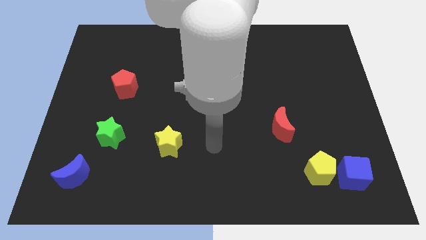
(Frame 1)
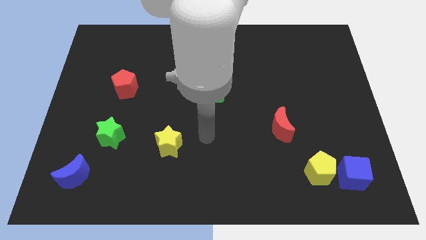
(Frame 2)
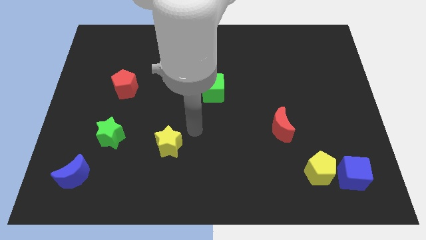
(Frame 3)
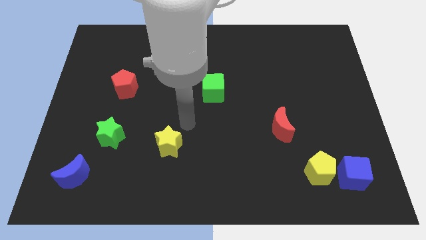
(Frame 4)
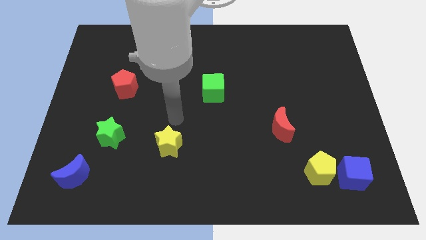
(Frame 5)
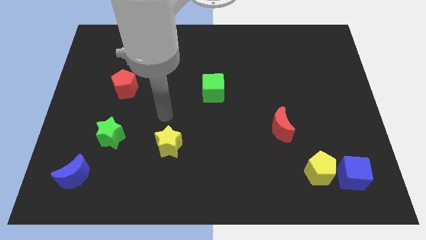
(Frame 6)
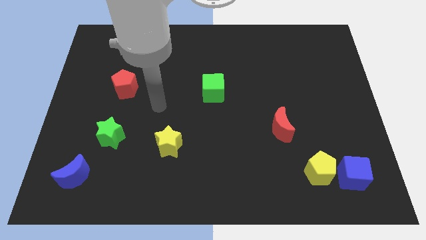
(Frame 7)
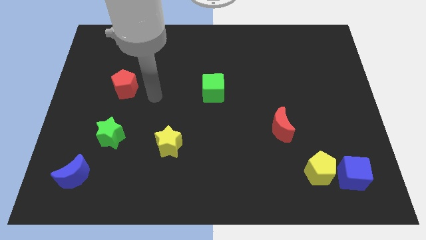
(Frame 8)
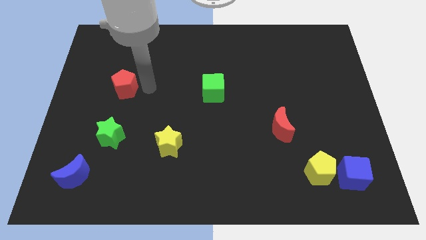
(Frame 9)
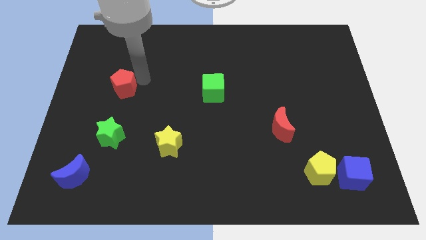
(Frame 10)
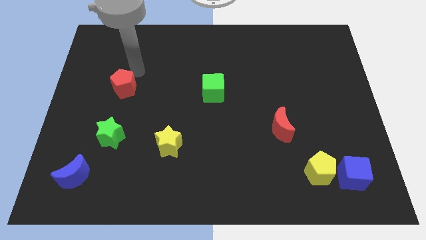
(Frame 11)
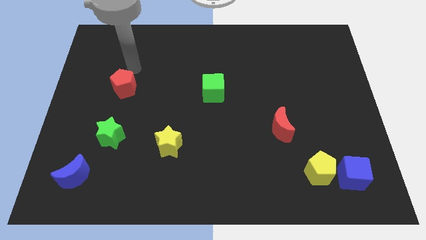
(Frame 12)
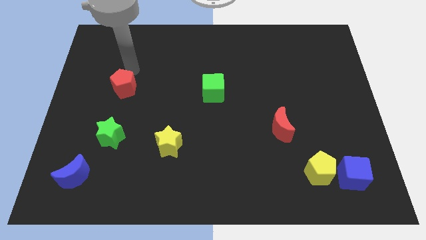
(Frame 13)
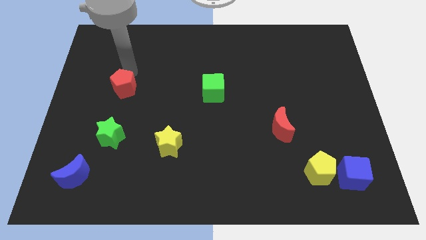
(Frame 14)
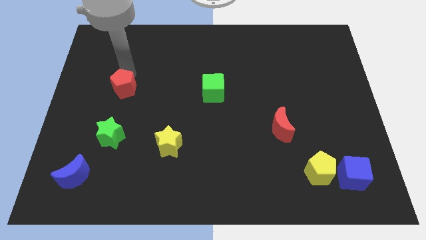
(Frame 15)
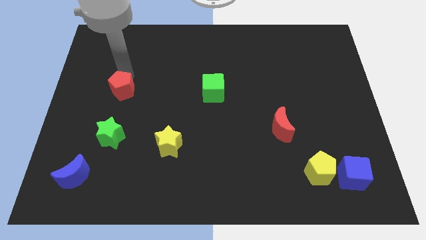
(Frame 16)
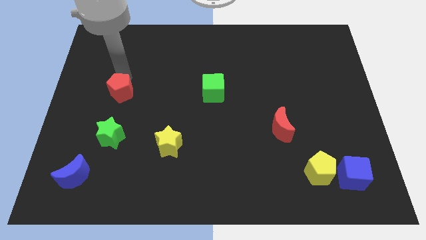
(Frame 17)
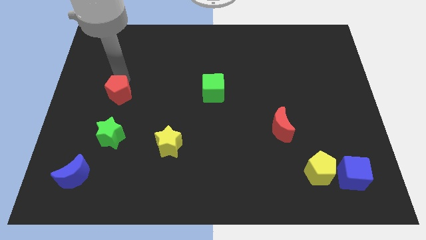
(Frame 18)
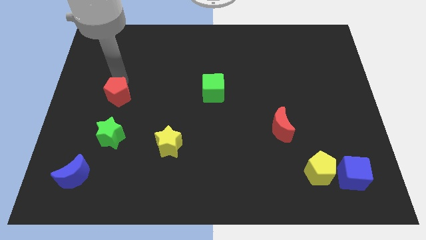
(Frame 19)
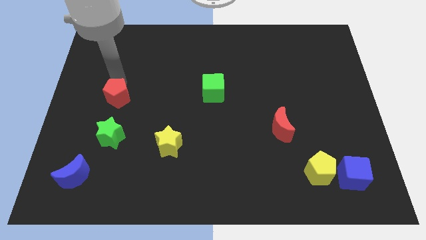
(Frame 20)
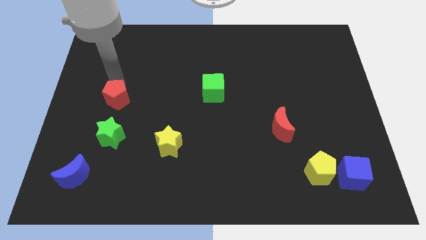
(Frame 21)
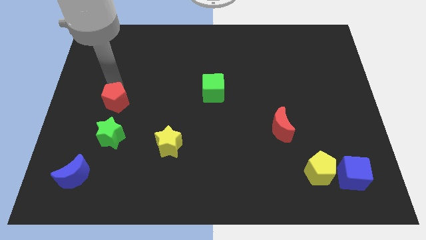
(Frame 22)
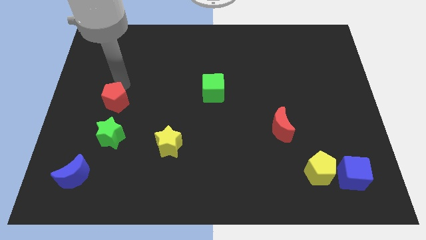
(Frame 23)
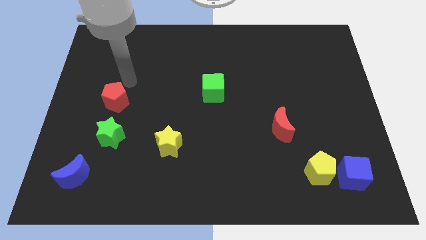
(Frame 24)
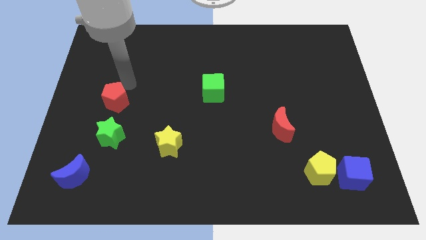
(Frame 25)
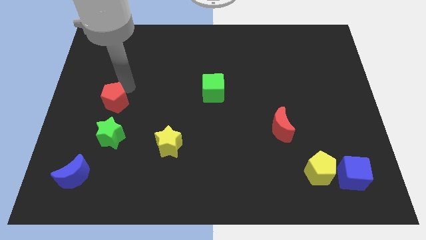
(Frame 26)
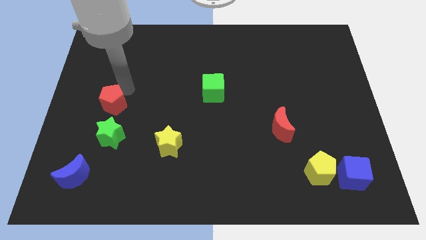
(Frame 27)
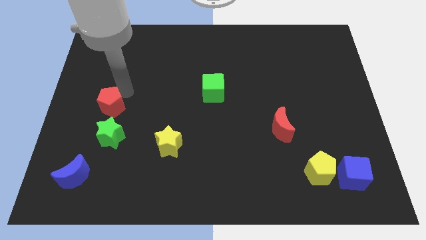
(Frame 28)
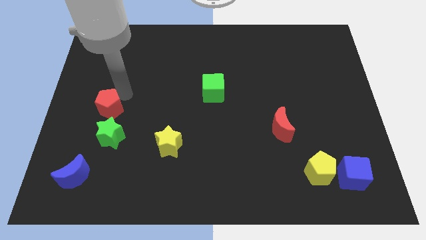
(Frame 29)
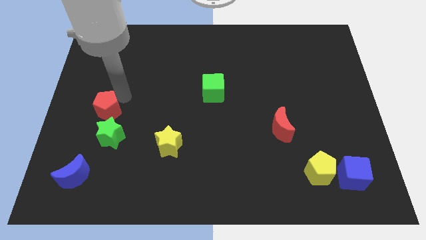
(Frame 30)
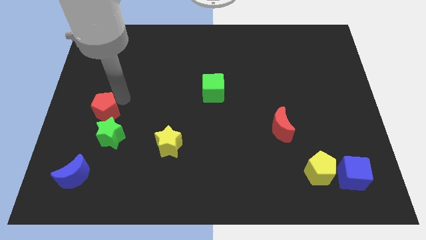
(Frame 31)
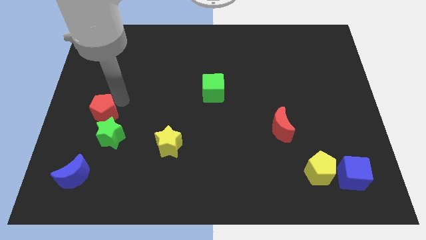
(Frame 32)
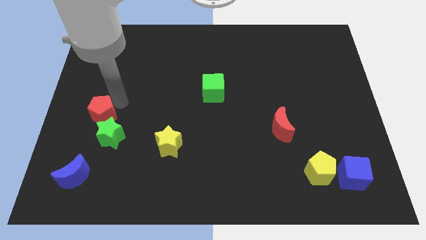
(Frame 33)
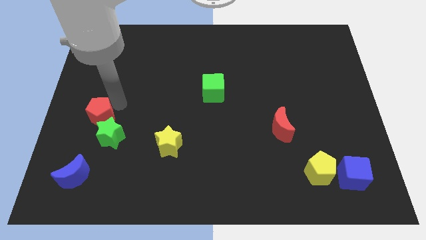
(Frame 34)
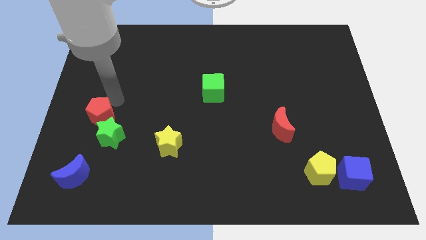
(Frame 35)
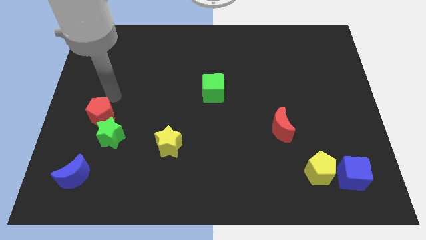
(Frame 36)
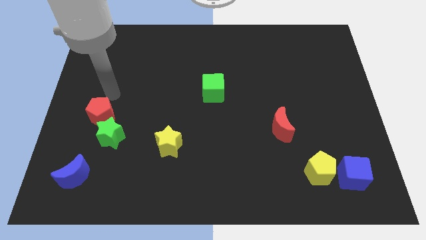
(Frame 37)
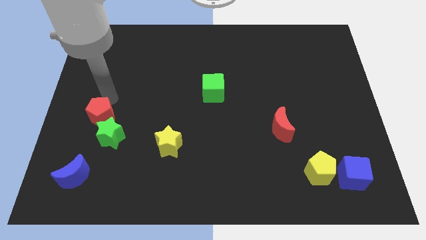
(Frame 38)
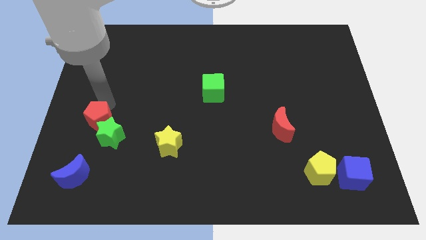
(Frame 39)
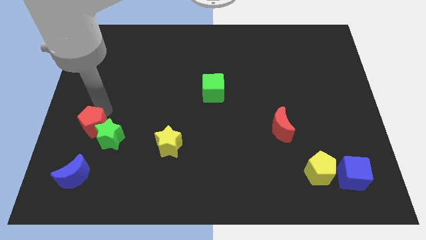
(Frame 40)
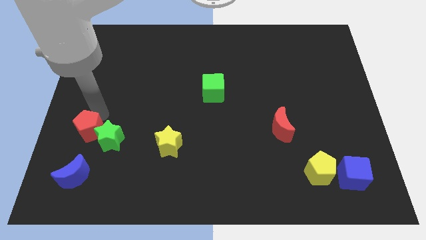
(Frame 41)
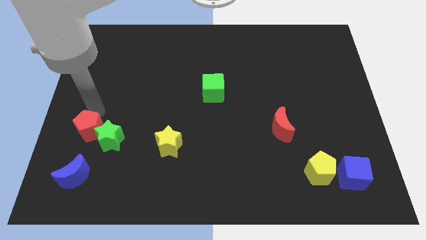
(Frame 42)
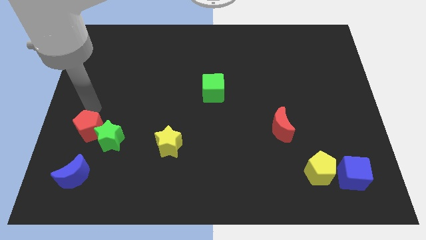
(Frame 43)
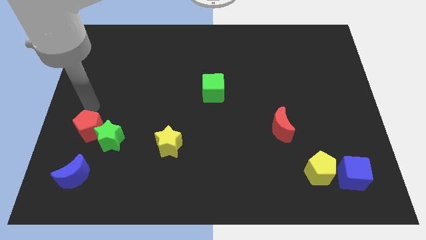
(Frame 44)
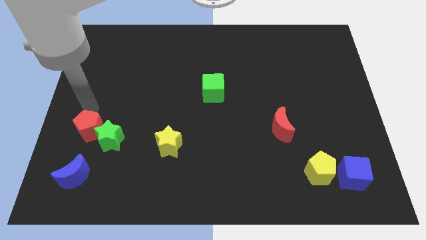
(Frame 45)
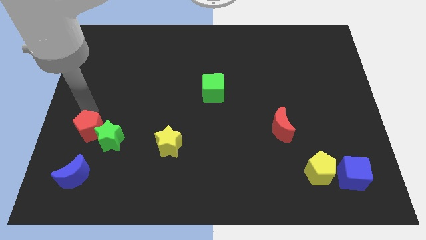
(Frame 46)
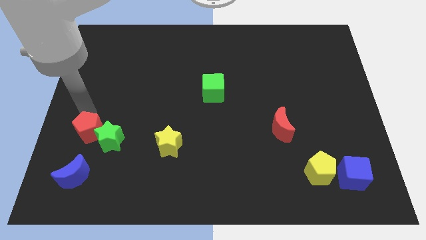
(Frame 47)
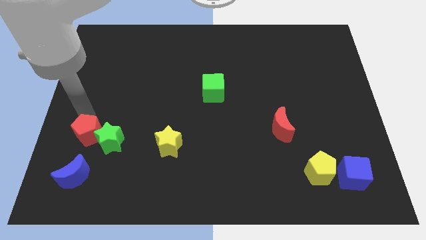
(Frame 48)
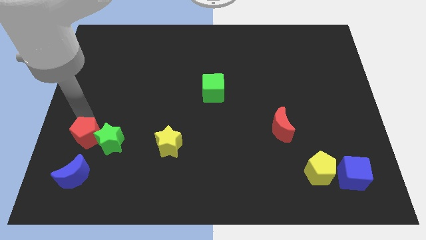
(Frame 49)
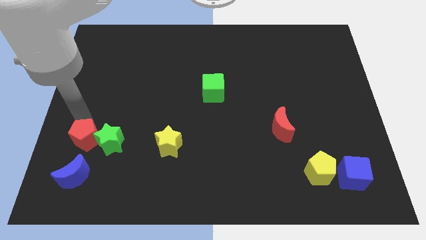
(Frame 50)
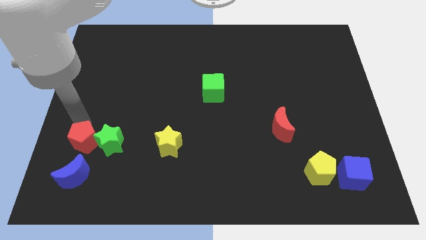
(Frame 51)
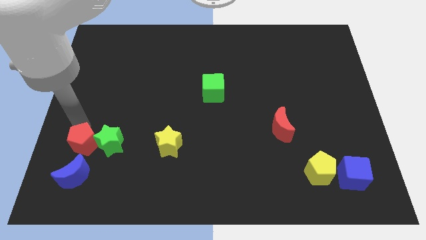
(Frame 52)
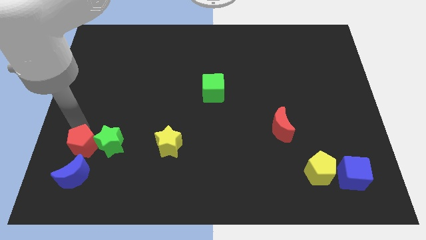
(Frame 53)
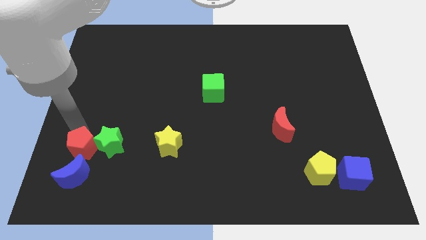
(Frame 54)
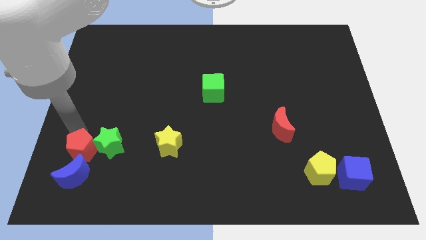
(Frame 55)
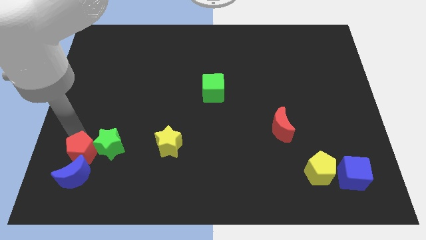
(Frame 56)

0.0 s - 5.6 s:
push the red pentagon close to the blue moon

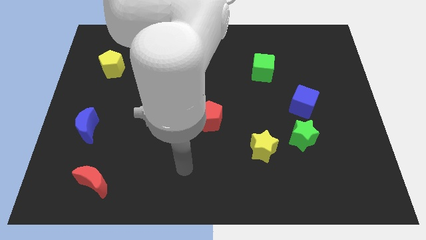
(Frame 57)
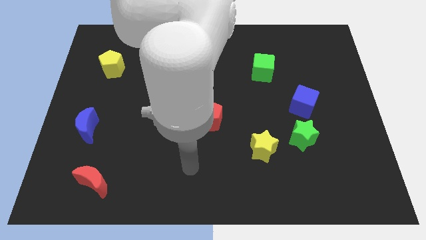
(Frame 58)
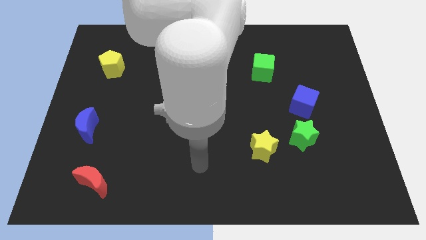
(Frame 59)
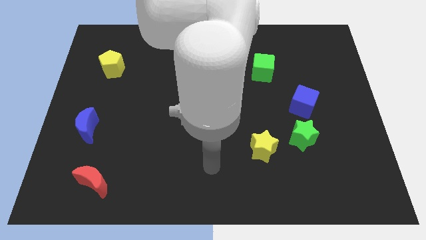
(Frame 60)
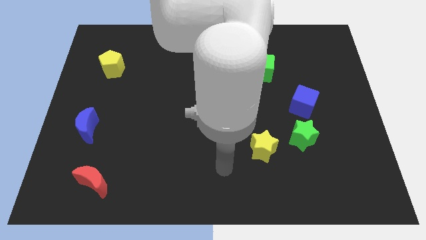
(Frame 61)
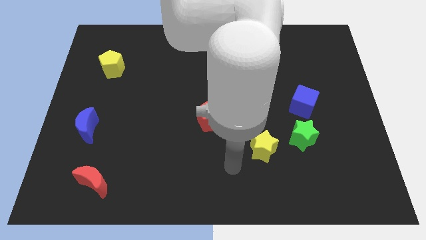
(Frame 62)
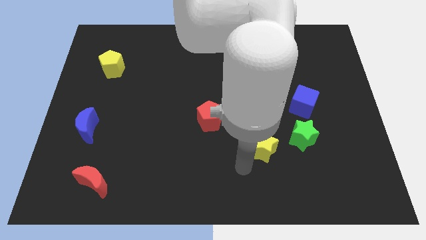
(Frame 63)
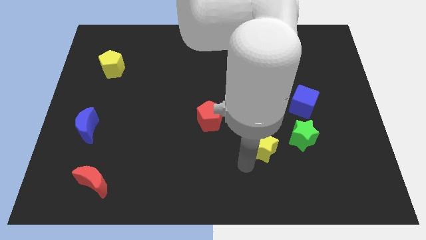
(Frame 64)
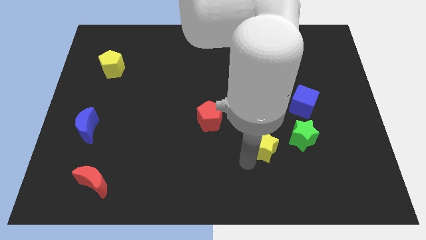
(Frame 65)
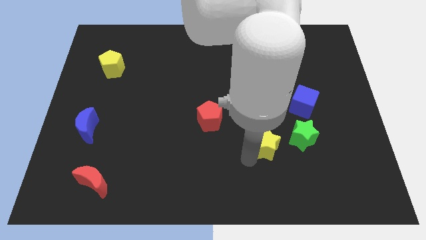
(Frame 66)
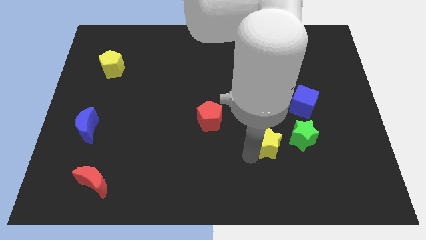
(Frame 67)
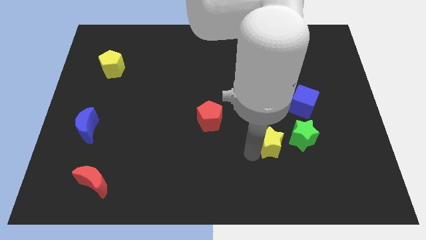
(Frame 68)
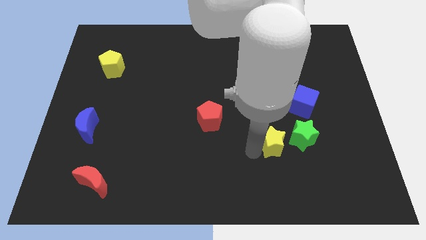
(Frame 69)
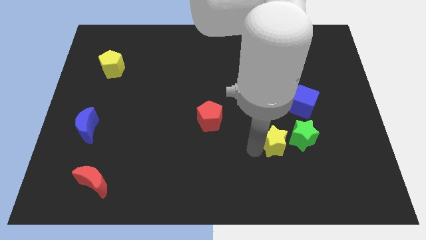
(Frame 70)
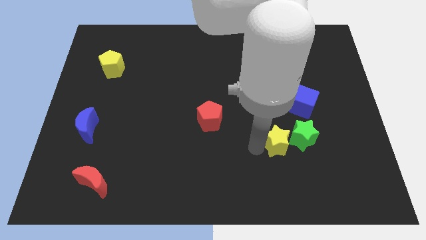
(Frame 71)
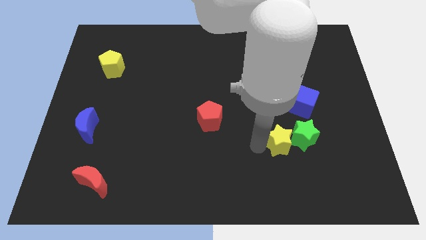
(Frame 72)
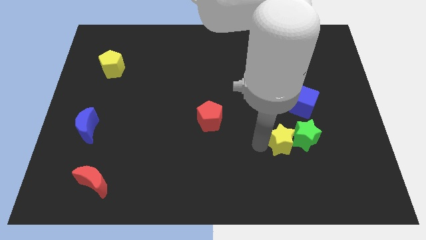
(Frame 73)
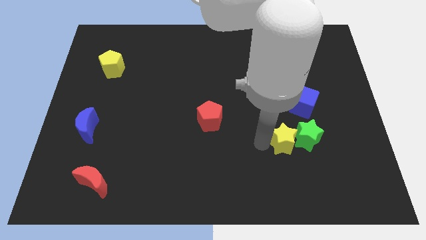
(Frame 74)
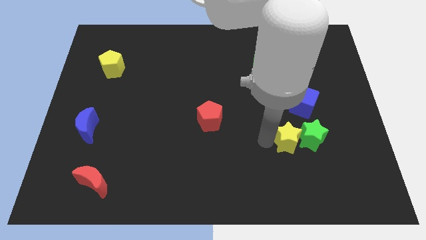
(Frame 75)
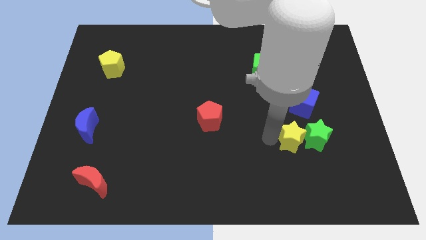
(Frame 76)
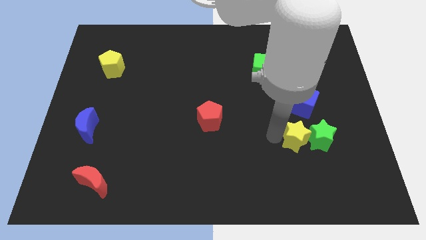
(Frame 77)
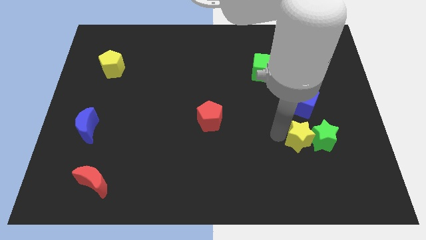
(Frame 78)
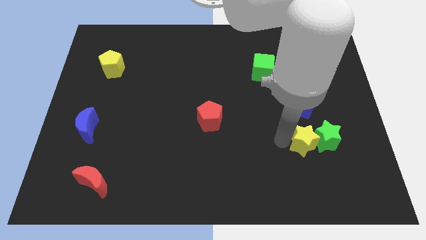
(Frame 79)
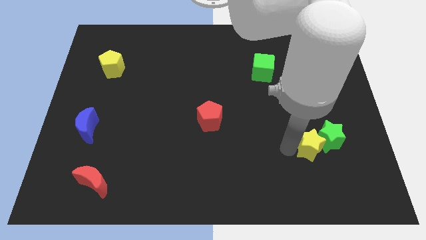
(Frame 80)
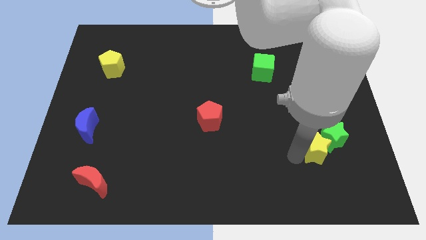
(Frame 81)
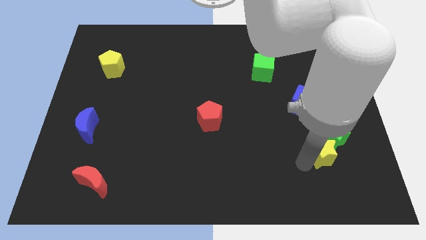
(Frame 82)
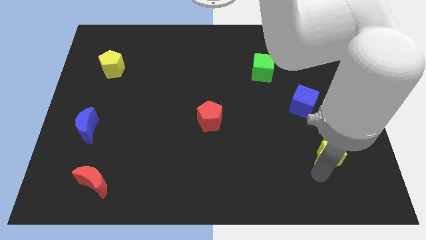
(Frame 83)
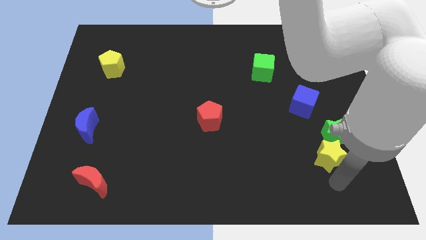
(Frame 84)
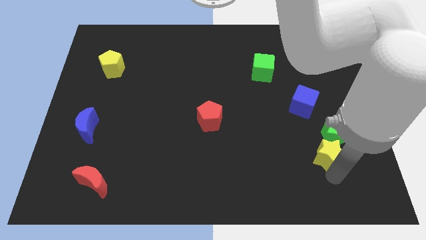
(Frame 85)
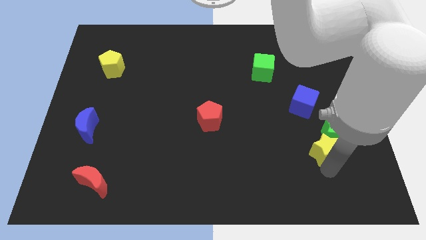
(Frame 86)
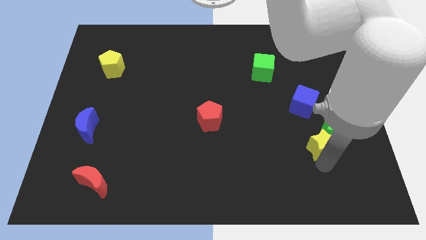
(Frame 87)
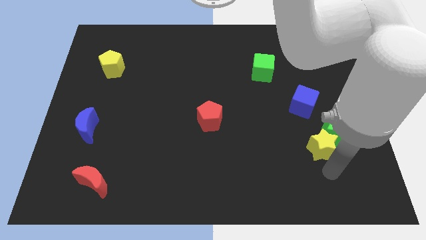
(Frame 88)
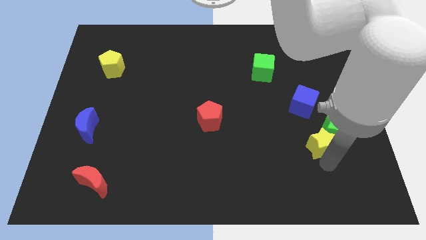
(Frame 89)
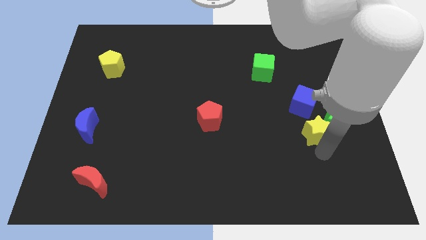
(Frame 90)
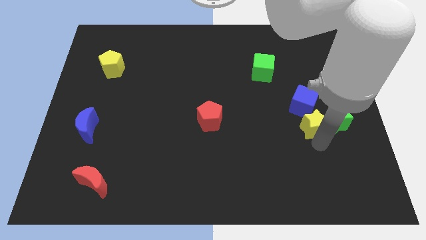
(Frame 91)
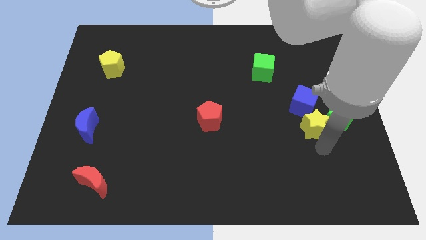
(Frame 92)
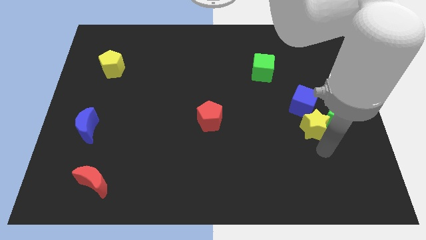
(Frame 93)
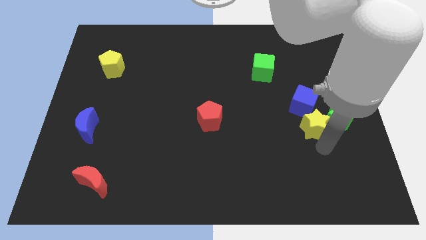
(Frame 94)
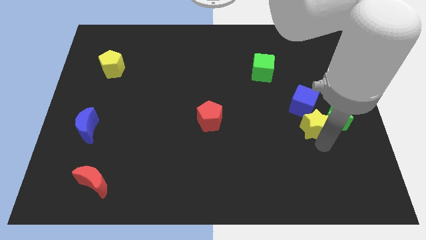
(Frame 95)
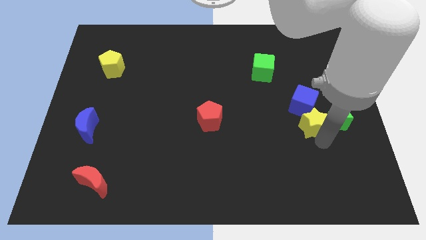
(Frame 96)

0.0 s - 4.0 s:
push the yellow star next to the blue cube
